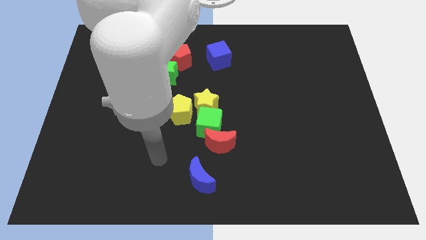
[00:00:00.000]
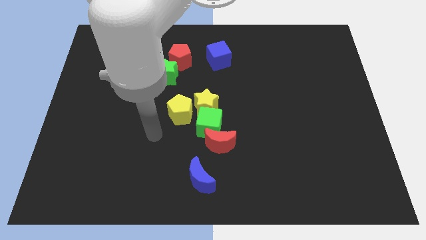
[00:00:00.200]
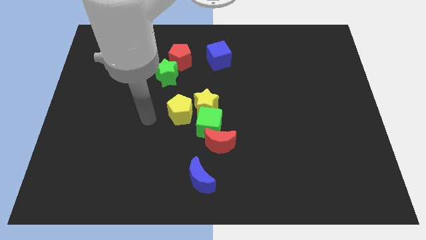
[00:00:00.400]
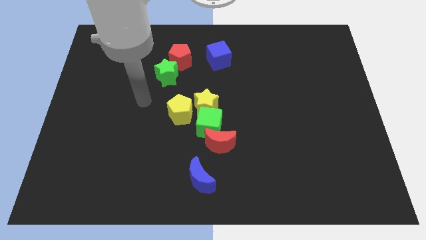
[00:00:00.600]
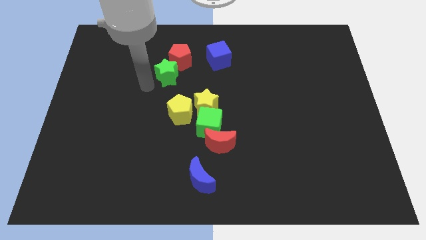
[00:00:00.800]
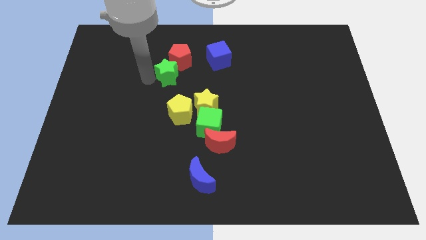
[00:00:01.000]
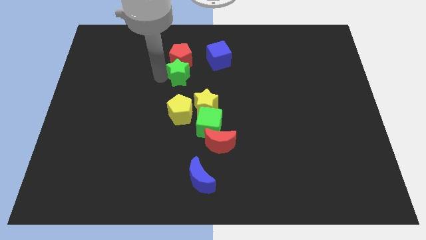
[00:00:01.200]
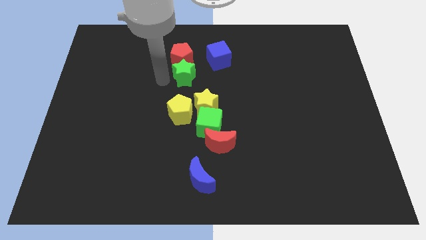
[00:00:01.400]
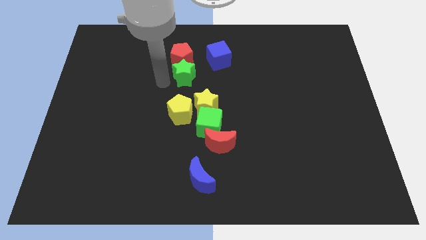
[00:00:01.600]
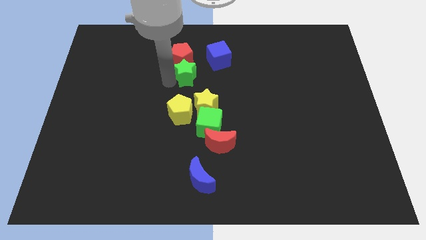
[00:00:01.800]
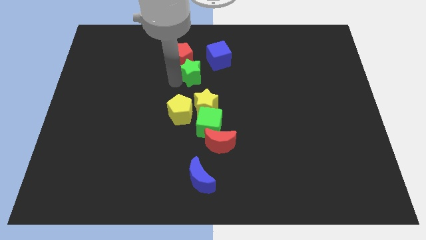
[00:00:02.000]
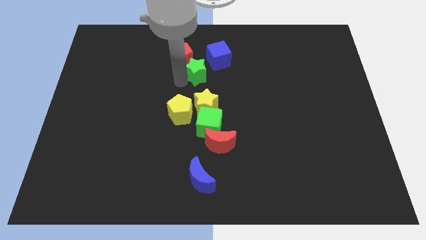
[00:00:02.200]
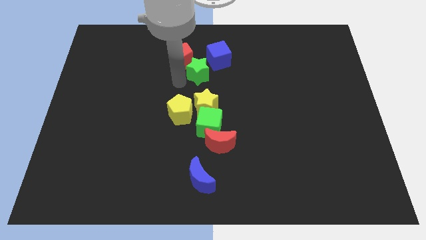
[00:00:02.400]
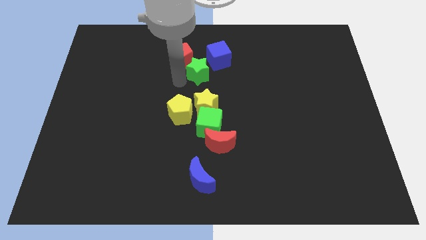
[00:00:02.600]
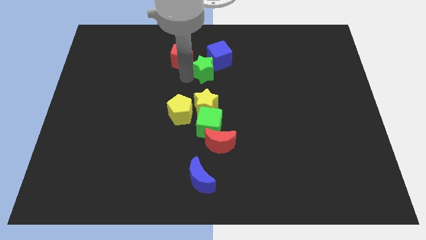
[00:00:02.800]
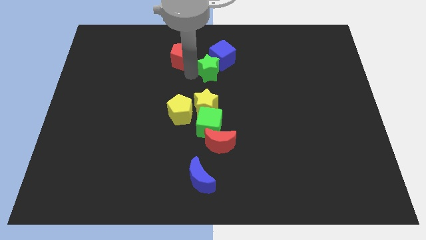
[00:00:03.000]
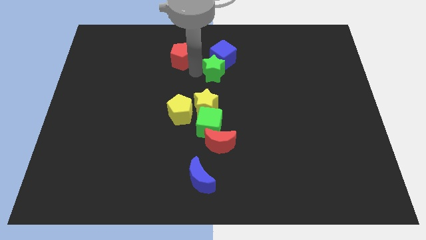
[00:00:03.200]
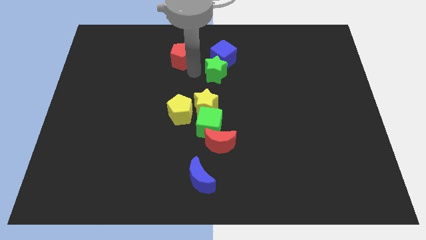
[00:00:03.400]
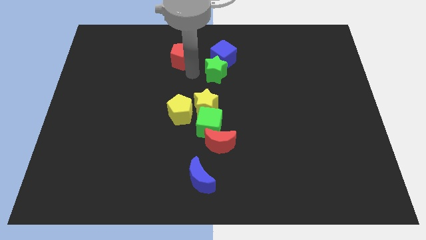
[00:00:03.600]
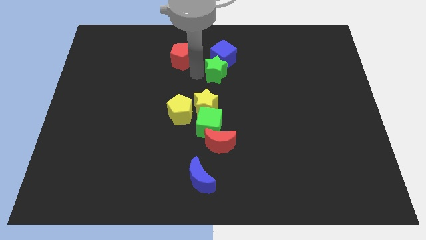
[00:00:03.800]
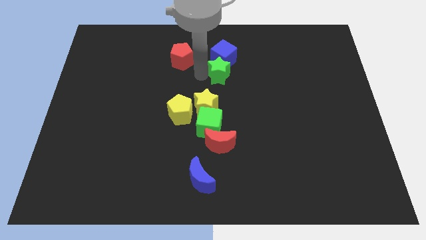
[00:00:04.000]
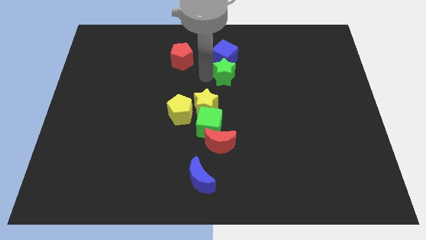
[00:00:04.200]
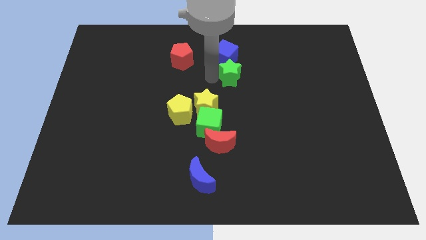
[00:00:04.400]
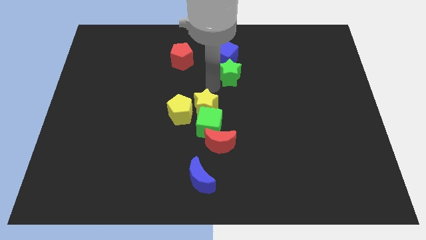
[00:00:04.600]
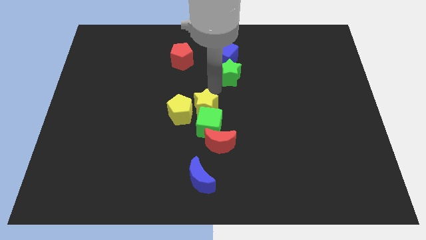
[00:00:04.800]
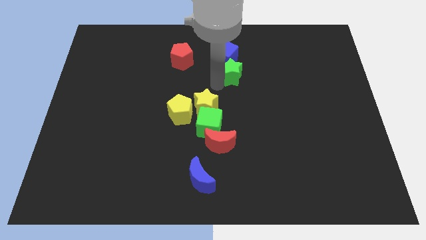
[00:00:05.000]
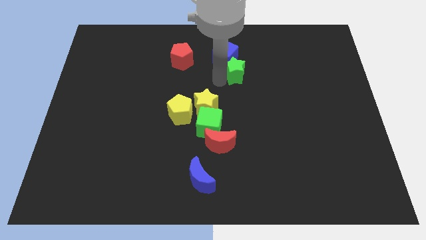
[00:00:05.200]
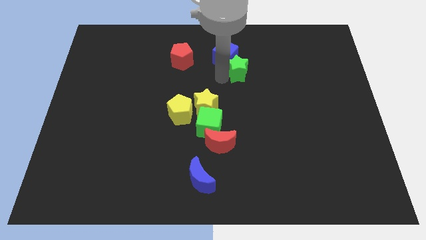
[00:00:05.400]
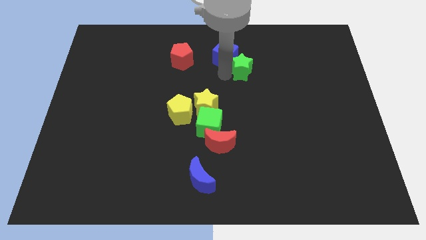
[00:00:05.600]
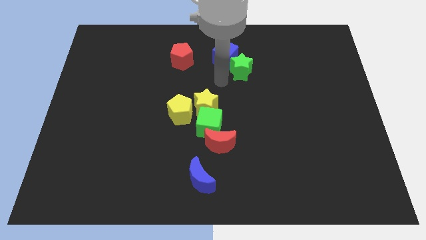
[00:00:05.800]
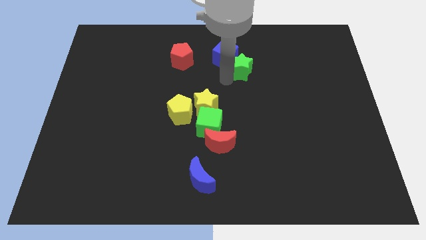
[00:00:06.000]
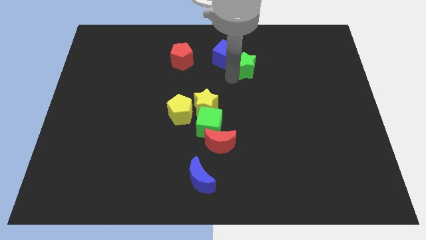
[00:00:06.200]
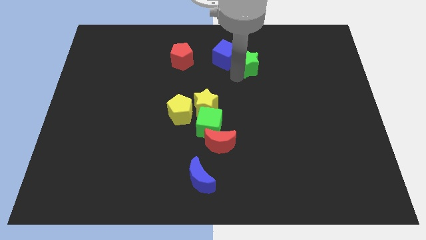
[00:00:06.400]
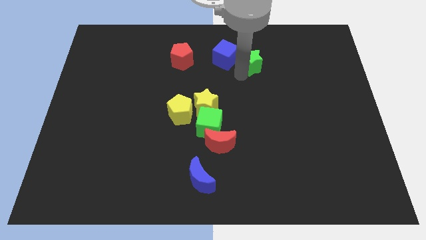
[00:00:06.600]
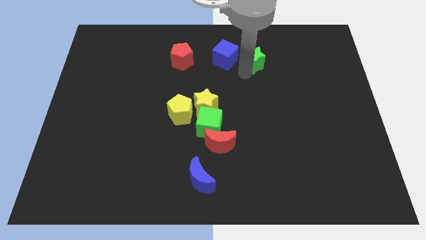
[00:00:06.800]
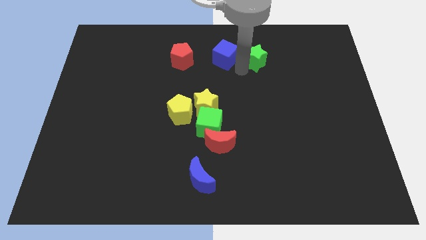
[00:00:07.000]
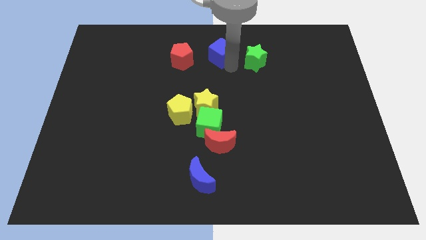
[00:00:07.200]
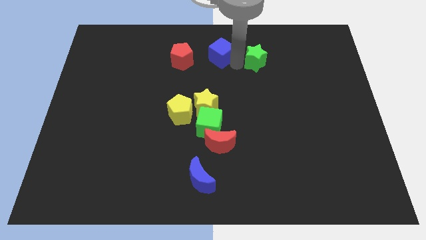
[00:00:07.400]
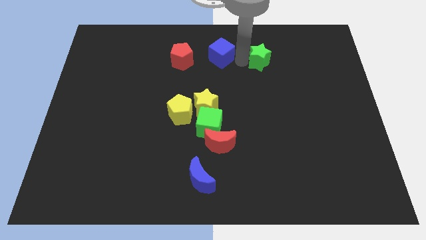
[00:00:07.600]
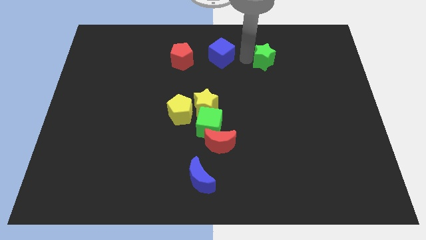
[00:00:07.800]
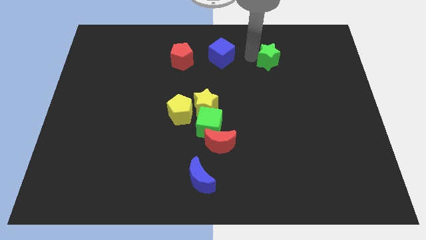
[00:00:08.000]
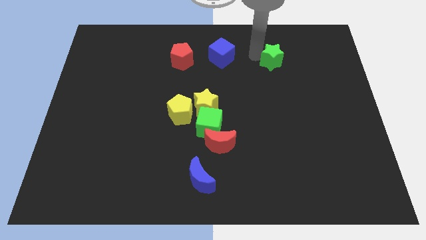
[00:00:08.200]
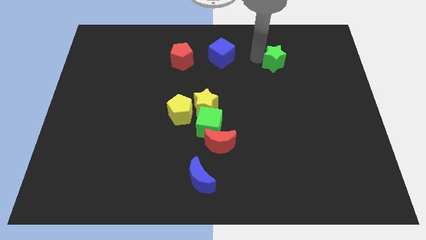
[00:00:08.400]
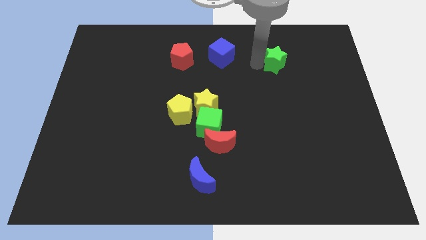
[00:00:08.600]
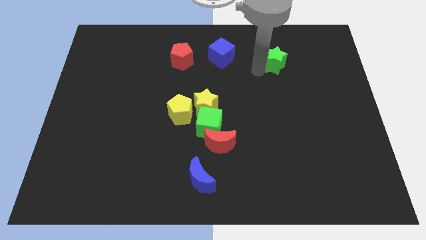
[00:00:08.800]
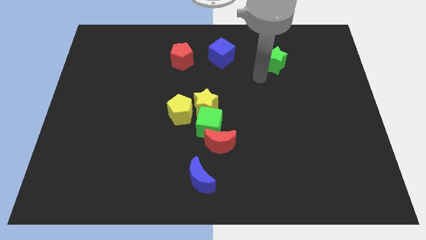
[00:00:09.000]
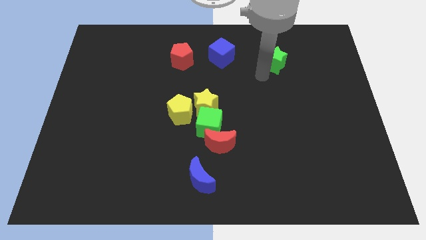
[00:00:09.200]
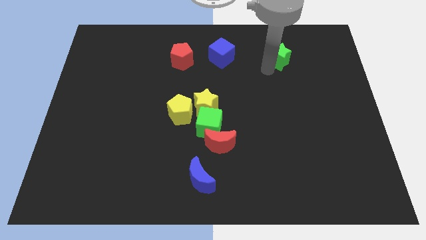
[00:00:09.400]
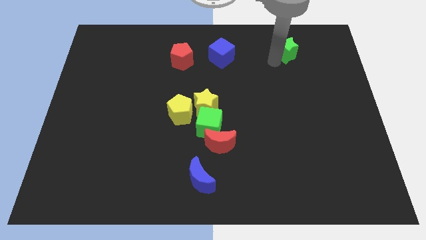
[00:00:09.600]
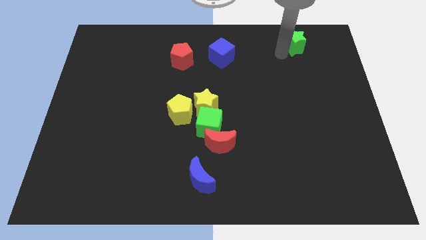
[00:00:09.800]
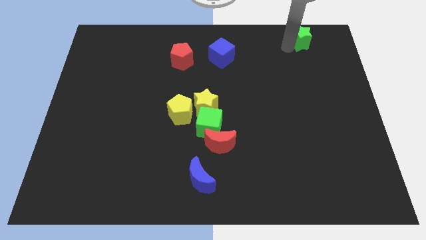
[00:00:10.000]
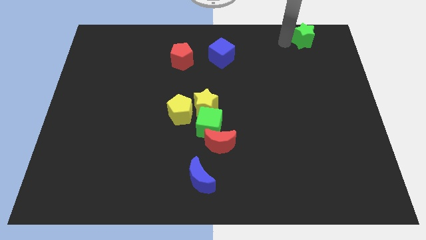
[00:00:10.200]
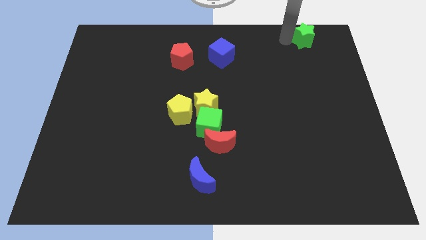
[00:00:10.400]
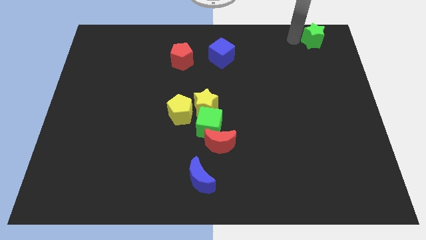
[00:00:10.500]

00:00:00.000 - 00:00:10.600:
move the green star to the top right
